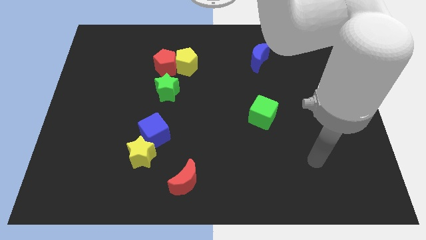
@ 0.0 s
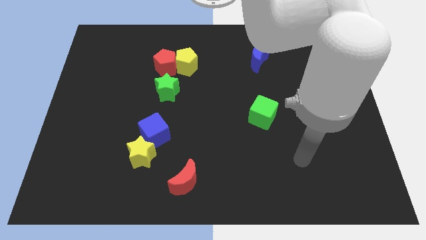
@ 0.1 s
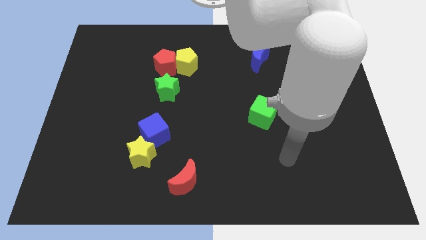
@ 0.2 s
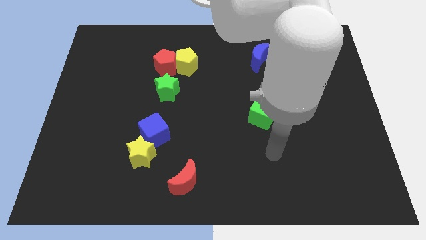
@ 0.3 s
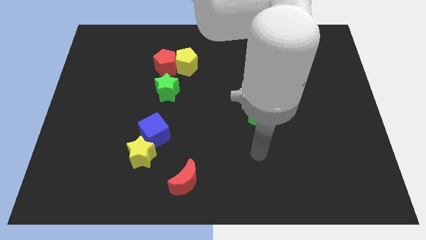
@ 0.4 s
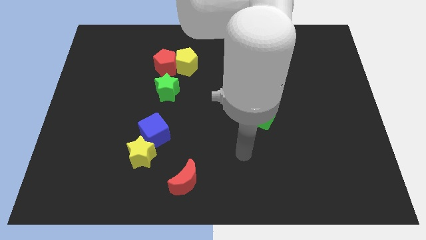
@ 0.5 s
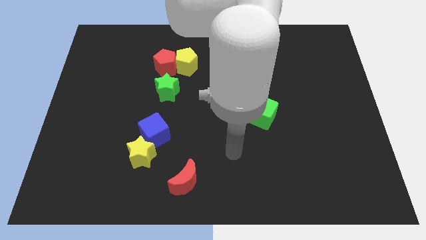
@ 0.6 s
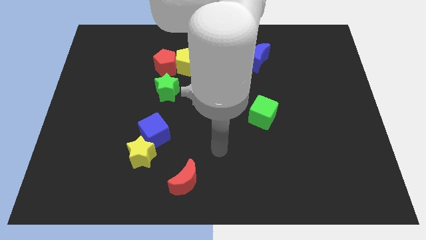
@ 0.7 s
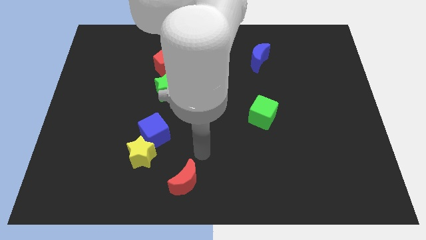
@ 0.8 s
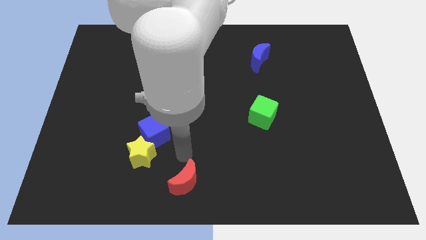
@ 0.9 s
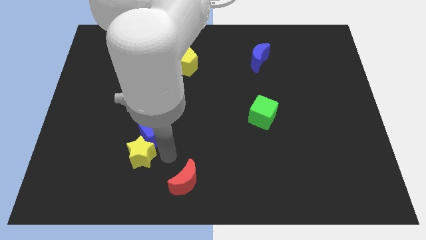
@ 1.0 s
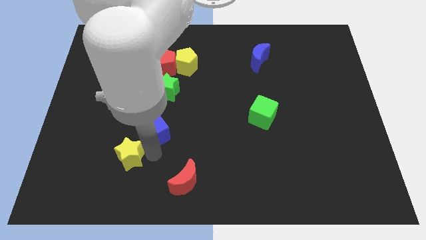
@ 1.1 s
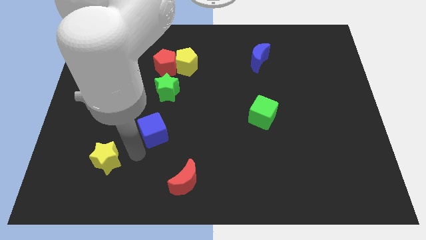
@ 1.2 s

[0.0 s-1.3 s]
pull the blue cube apart from the yellow star

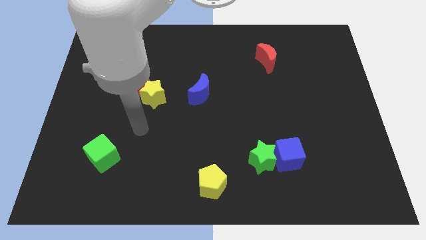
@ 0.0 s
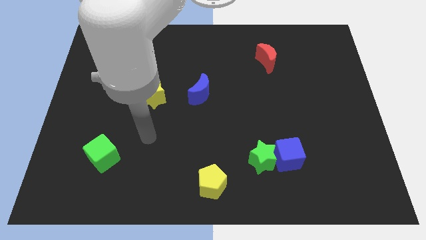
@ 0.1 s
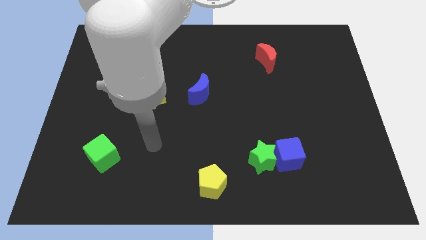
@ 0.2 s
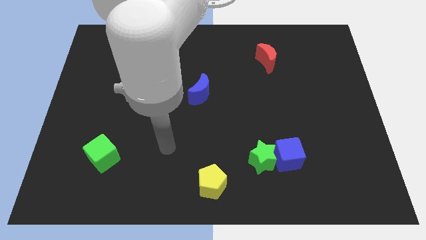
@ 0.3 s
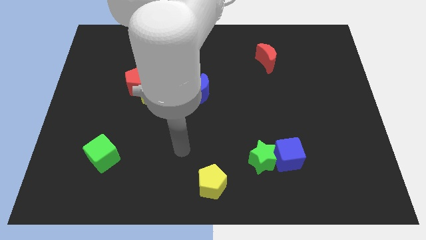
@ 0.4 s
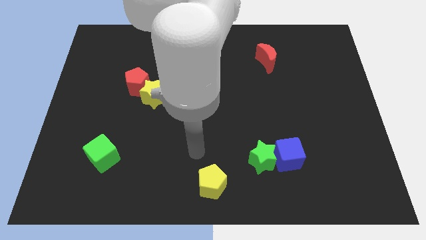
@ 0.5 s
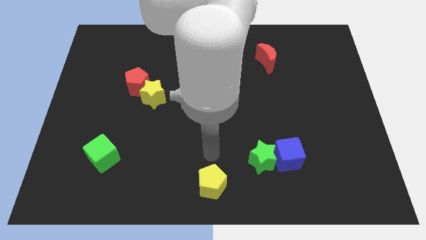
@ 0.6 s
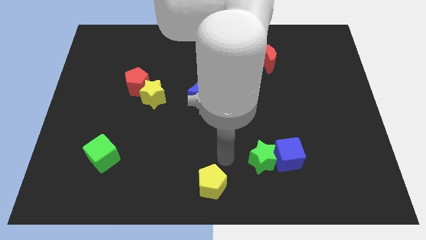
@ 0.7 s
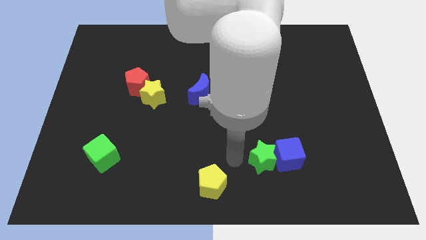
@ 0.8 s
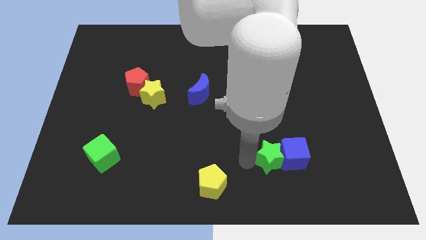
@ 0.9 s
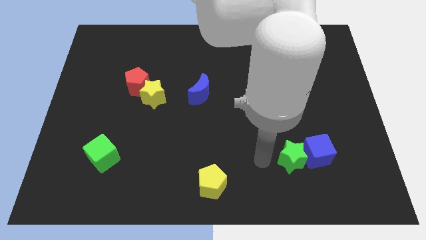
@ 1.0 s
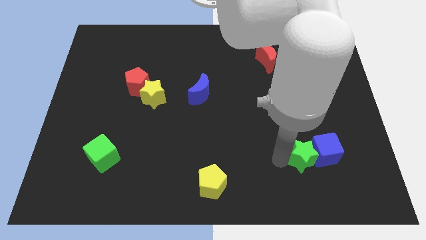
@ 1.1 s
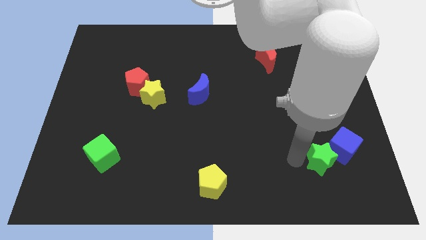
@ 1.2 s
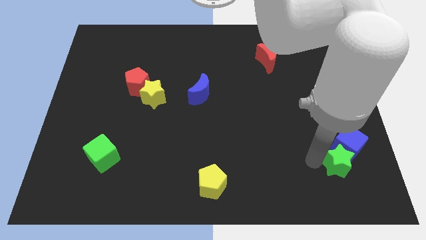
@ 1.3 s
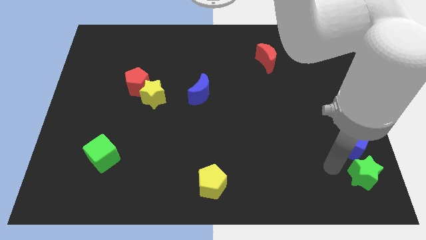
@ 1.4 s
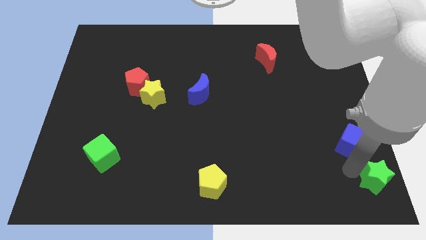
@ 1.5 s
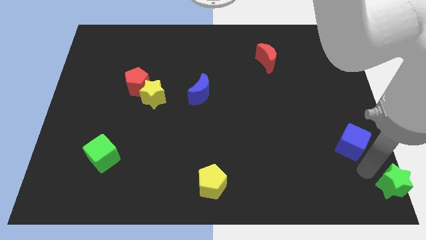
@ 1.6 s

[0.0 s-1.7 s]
separate the blue cube from the green star

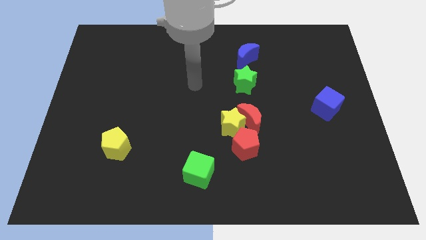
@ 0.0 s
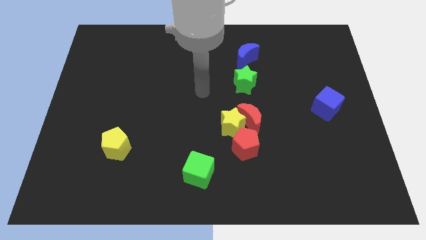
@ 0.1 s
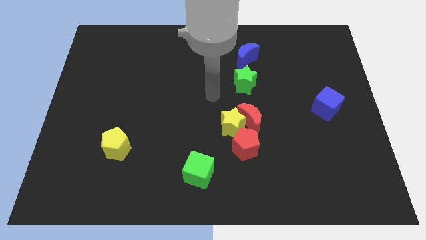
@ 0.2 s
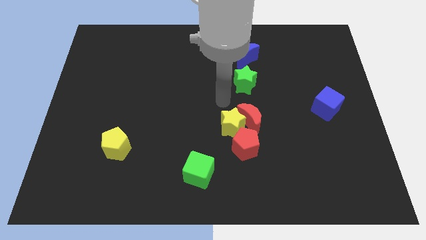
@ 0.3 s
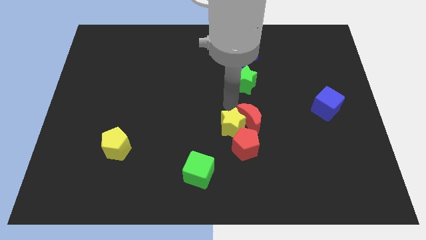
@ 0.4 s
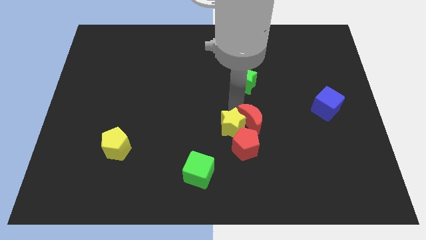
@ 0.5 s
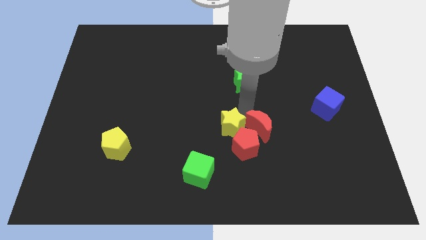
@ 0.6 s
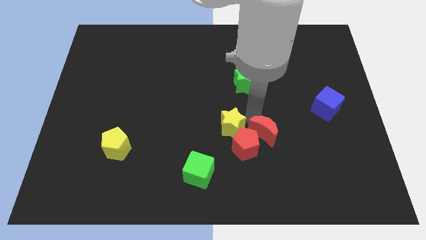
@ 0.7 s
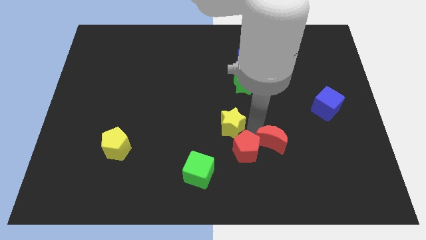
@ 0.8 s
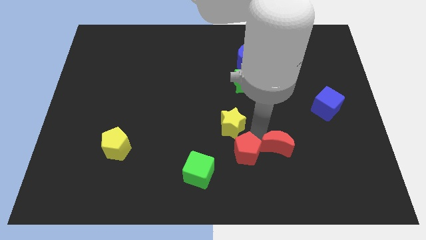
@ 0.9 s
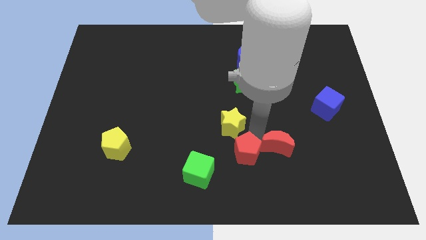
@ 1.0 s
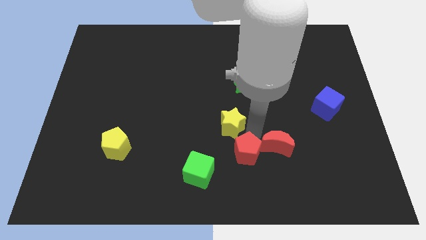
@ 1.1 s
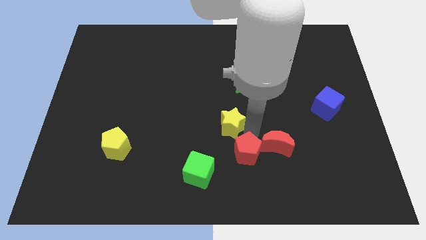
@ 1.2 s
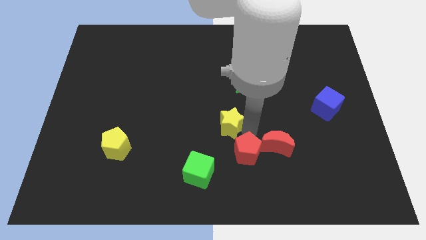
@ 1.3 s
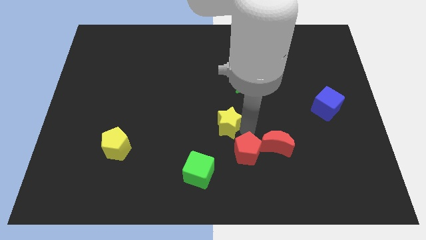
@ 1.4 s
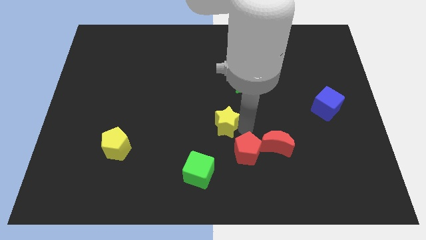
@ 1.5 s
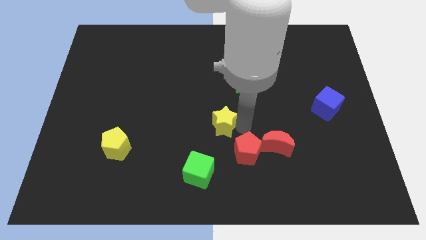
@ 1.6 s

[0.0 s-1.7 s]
separate the yellow star from the red moon and red pentagon

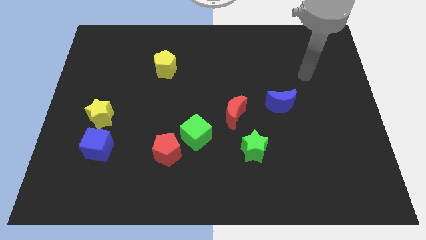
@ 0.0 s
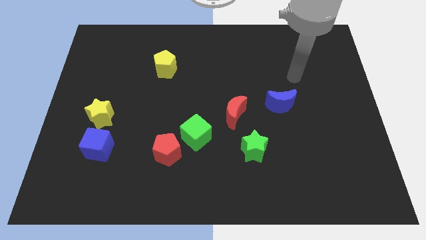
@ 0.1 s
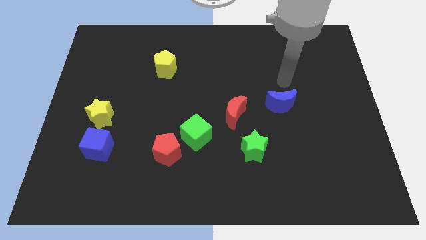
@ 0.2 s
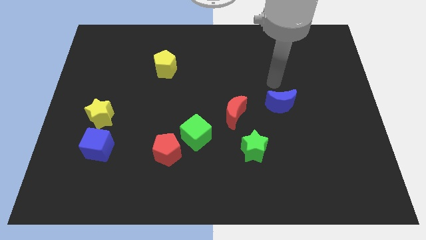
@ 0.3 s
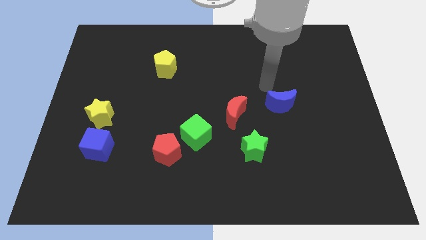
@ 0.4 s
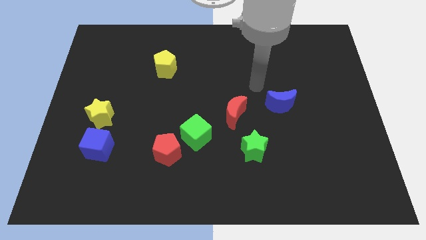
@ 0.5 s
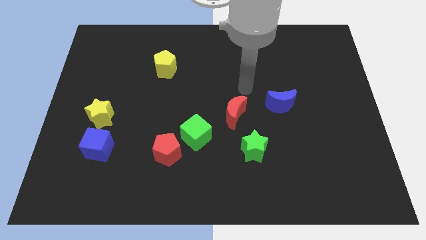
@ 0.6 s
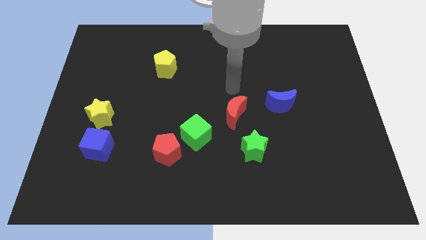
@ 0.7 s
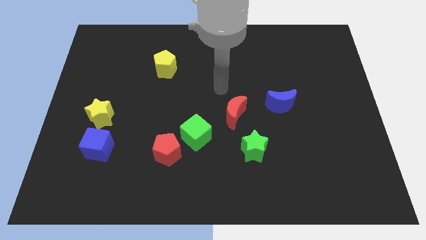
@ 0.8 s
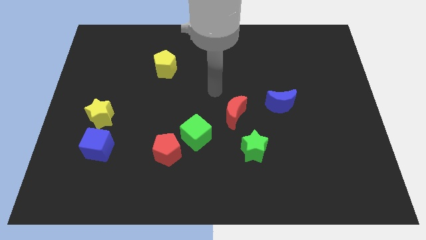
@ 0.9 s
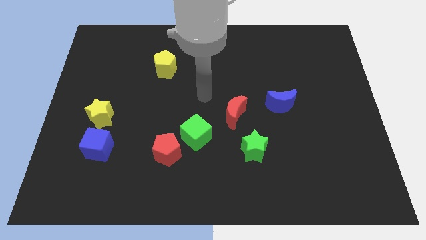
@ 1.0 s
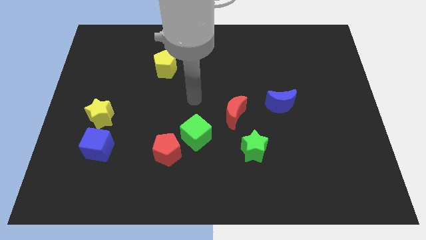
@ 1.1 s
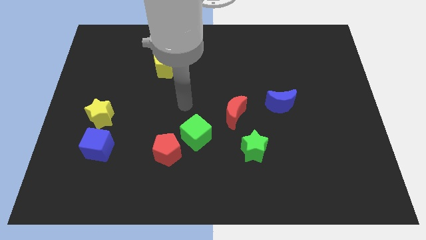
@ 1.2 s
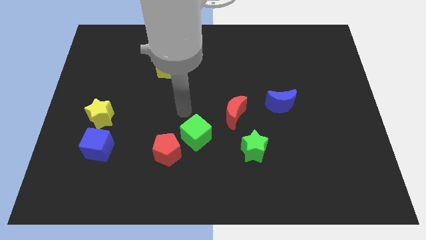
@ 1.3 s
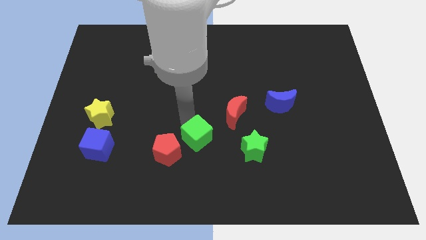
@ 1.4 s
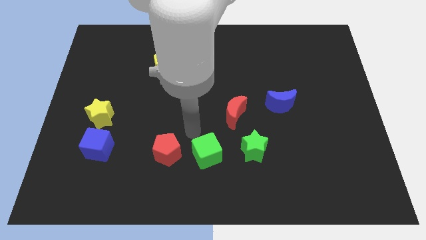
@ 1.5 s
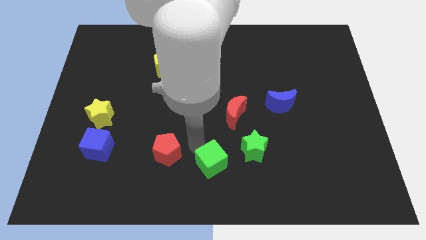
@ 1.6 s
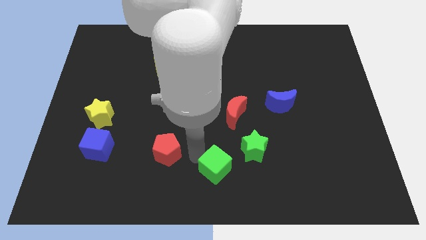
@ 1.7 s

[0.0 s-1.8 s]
separate the red pentagon from the green cube

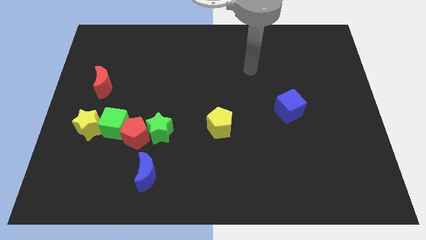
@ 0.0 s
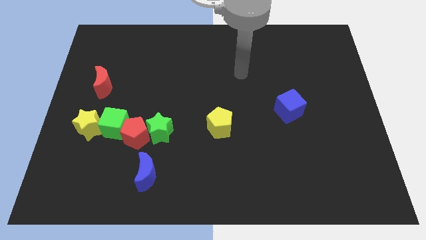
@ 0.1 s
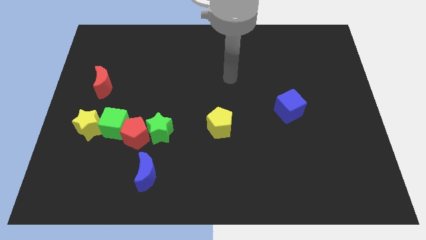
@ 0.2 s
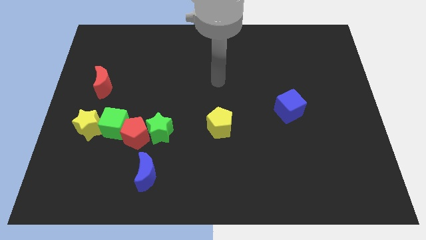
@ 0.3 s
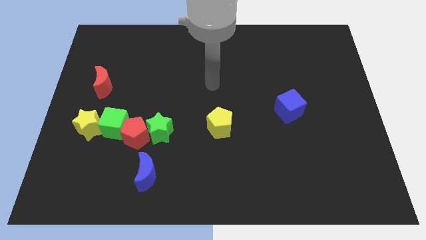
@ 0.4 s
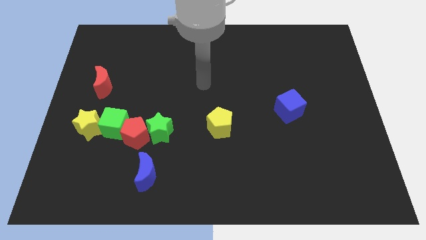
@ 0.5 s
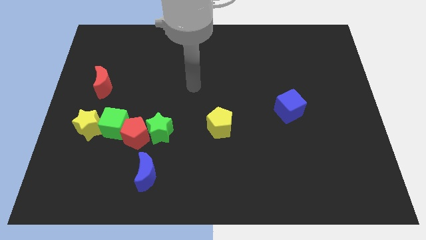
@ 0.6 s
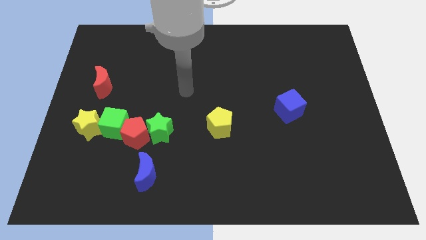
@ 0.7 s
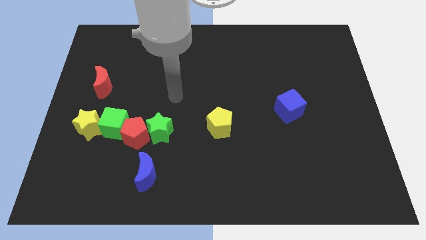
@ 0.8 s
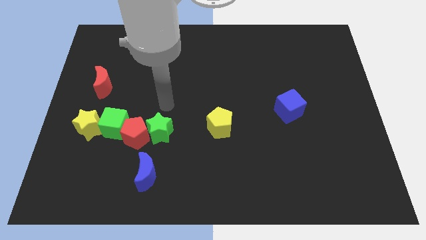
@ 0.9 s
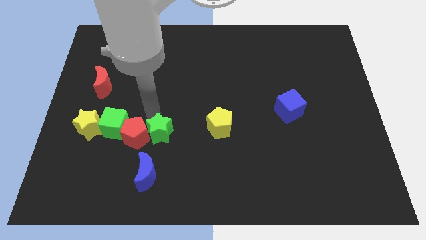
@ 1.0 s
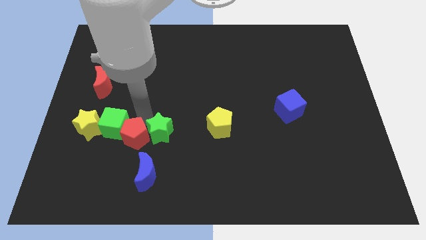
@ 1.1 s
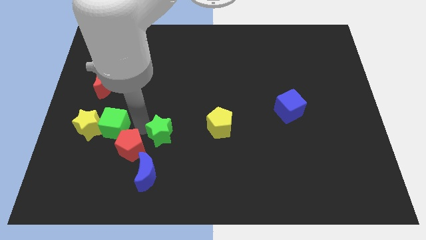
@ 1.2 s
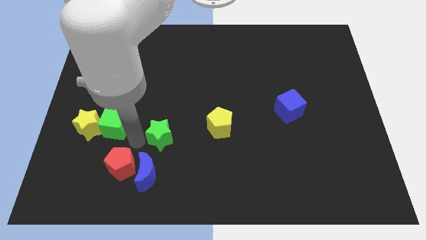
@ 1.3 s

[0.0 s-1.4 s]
move the green star away from the red pentagon

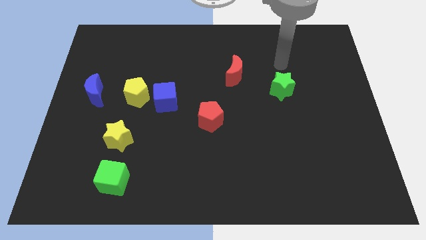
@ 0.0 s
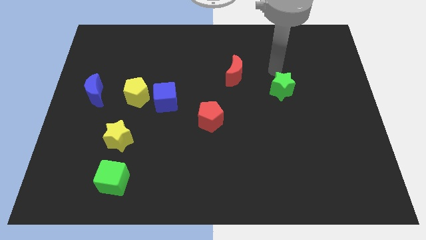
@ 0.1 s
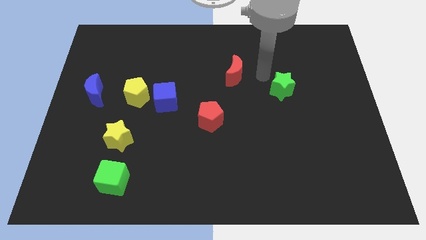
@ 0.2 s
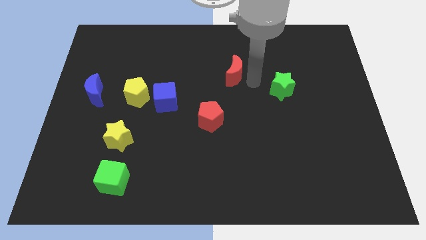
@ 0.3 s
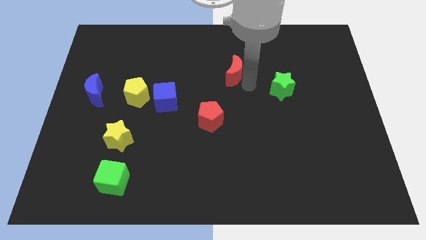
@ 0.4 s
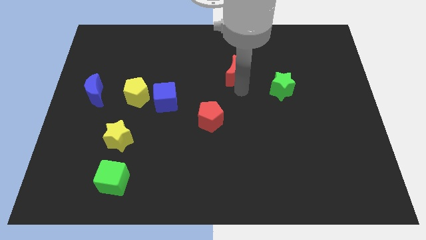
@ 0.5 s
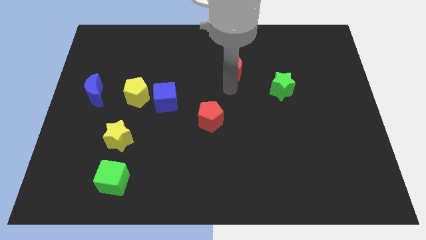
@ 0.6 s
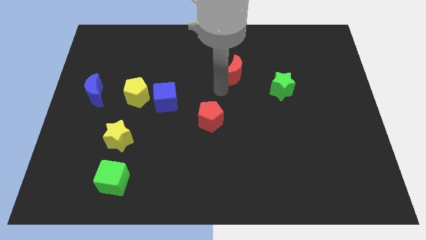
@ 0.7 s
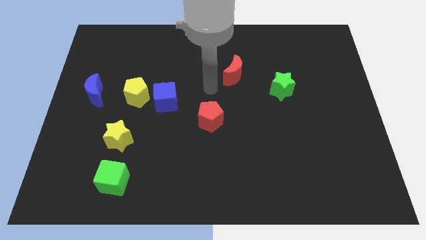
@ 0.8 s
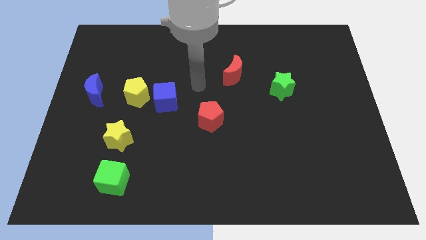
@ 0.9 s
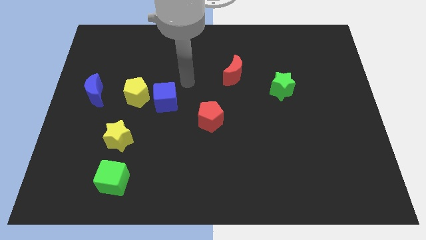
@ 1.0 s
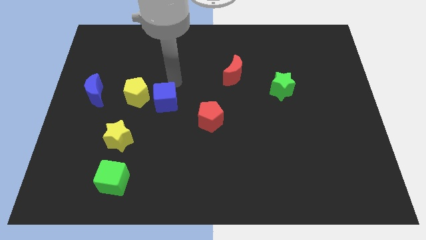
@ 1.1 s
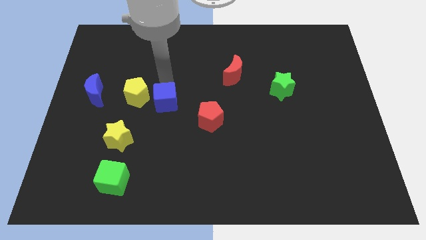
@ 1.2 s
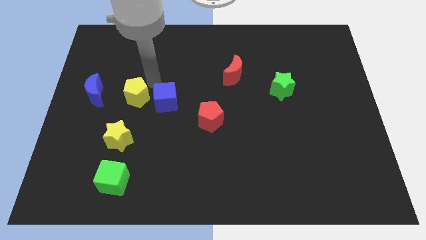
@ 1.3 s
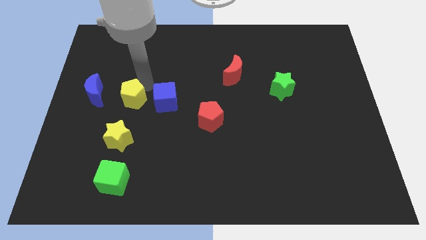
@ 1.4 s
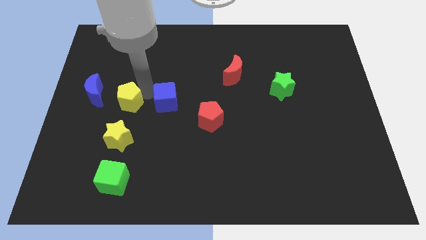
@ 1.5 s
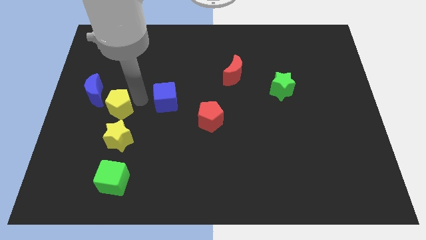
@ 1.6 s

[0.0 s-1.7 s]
separate the blue cube from the yellow pentagon
